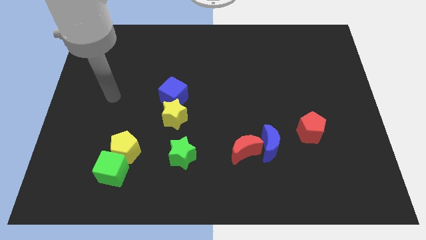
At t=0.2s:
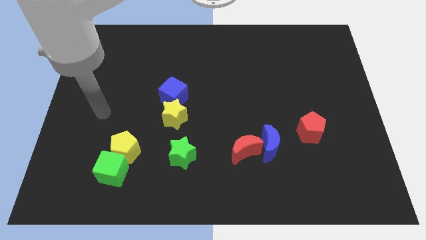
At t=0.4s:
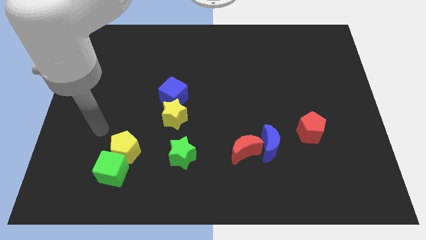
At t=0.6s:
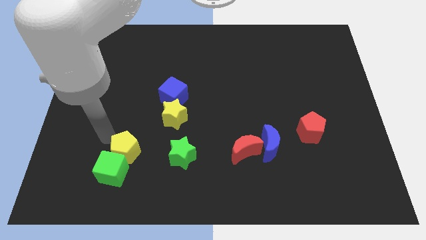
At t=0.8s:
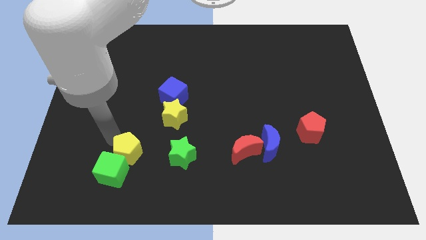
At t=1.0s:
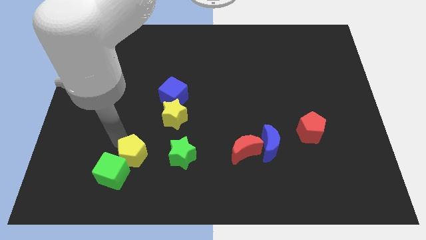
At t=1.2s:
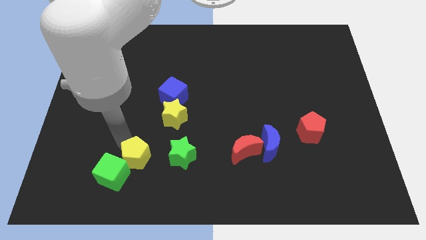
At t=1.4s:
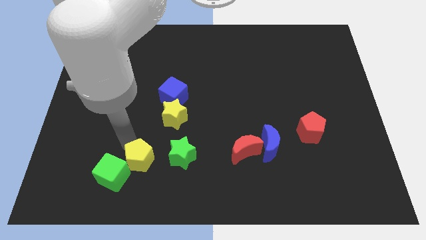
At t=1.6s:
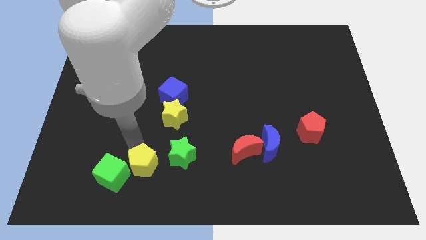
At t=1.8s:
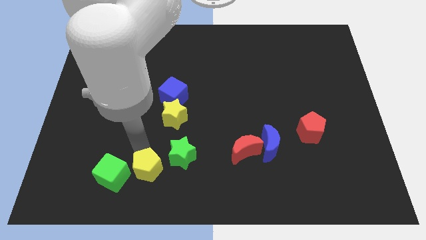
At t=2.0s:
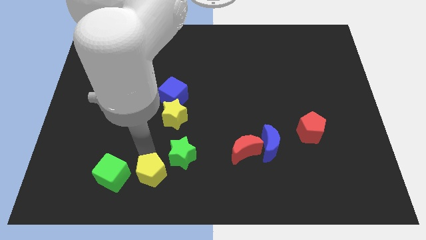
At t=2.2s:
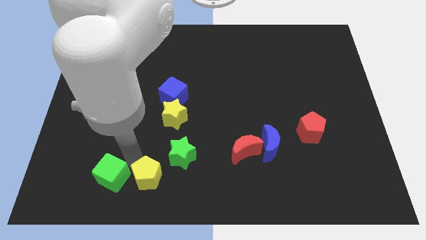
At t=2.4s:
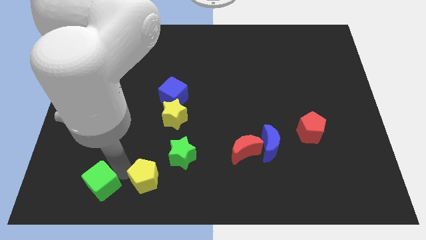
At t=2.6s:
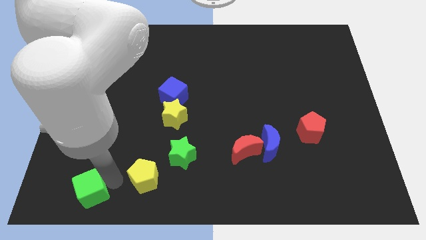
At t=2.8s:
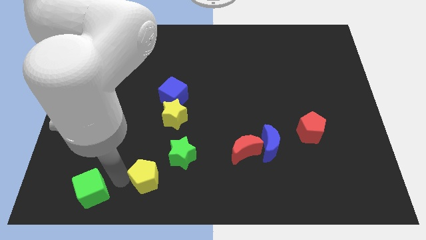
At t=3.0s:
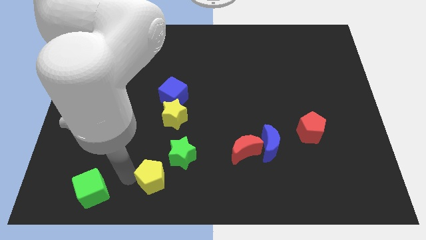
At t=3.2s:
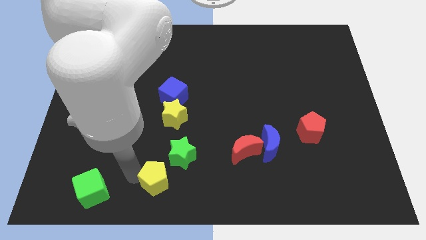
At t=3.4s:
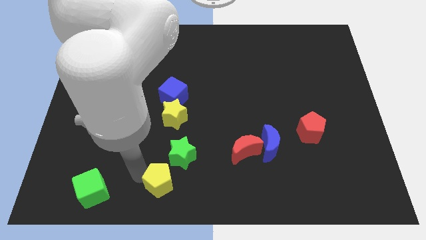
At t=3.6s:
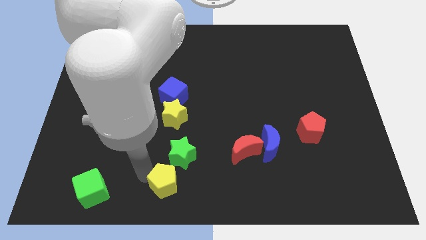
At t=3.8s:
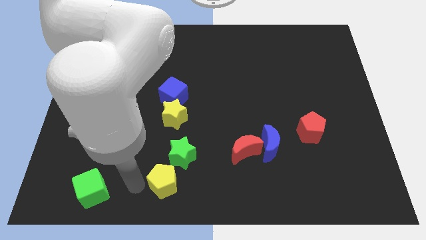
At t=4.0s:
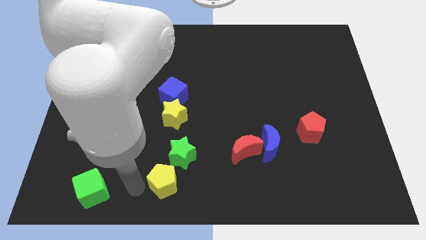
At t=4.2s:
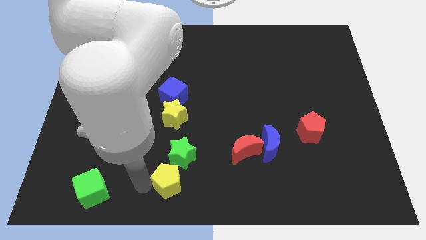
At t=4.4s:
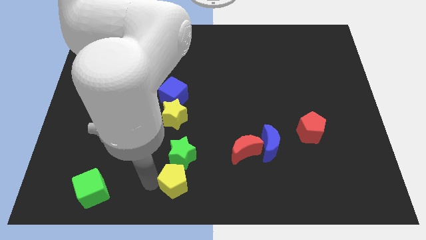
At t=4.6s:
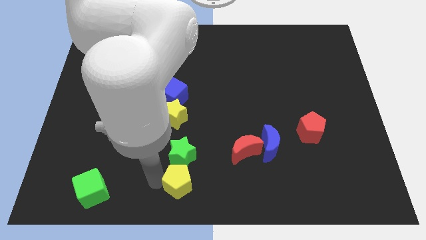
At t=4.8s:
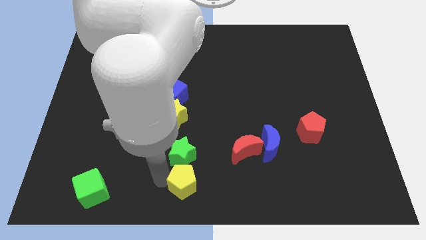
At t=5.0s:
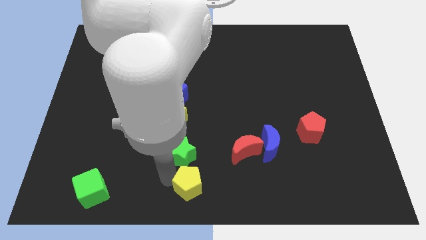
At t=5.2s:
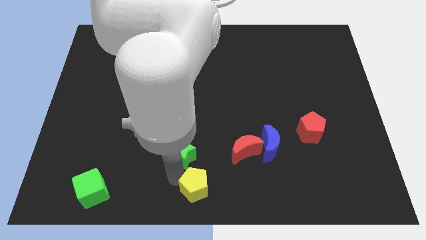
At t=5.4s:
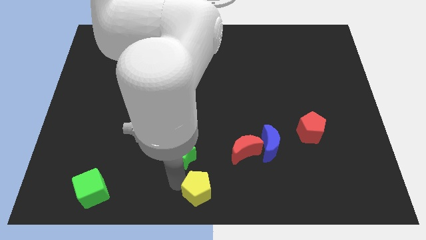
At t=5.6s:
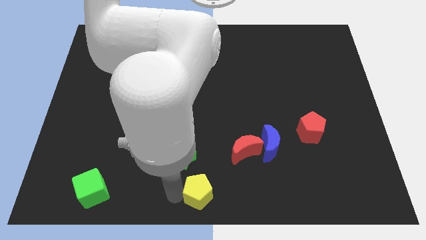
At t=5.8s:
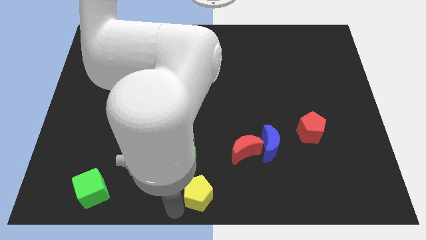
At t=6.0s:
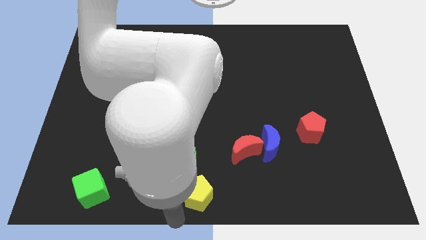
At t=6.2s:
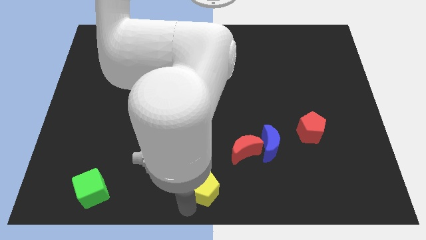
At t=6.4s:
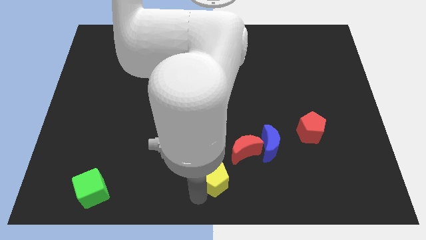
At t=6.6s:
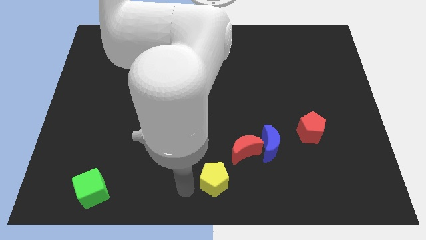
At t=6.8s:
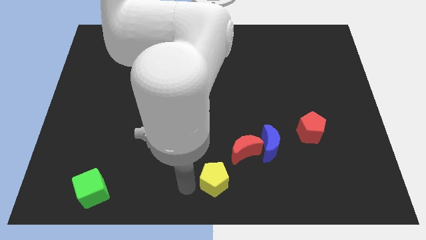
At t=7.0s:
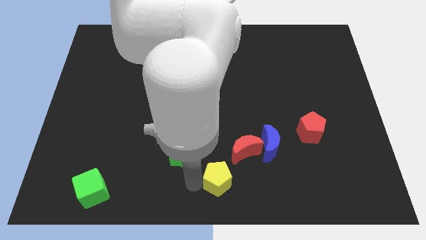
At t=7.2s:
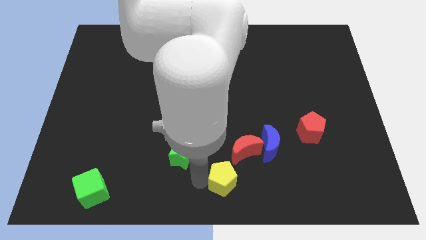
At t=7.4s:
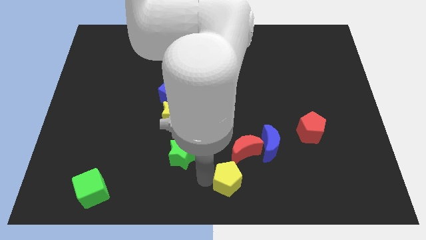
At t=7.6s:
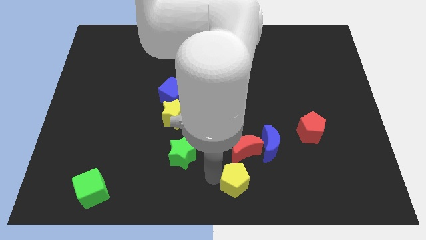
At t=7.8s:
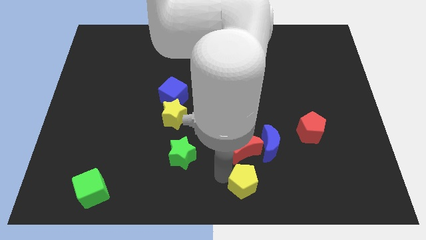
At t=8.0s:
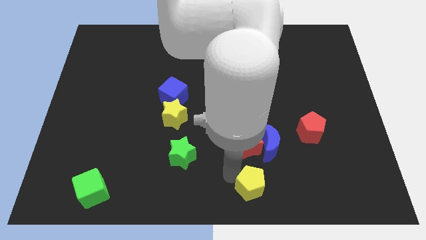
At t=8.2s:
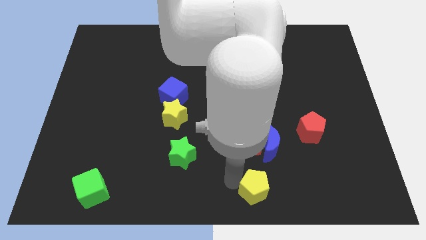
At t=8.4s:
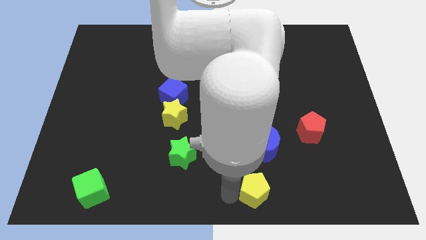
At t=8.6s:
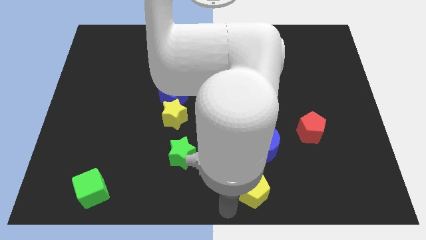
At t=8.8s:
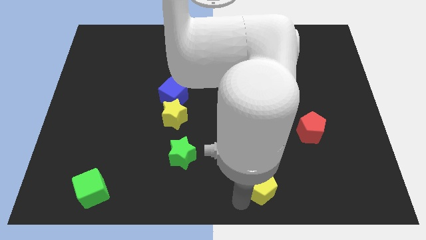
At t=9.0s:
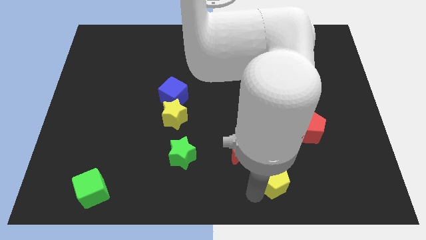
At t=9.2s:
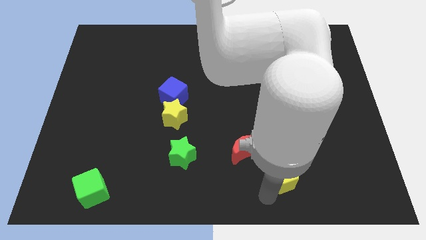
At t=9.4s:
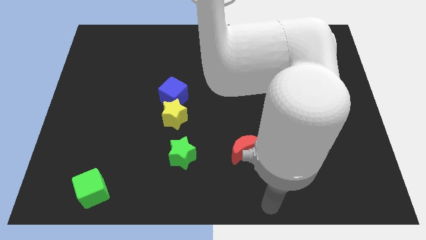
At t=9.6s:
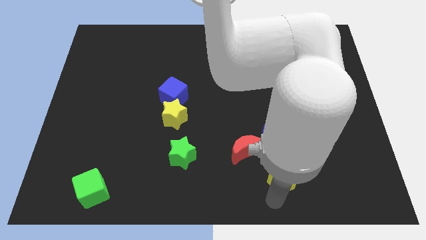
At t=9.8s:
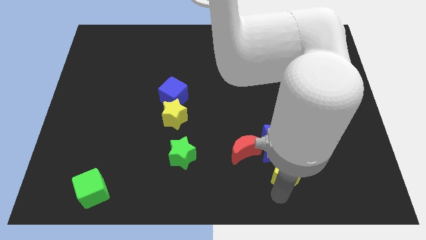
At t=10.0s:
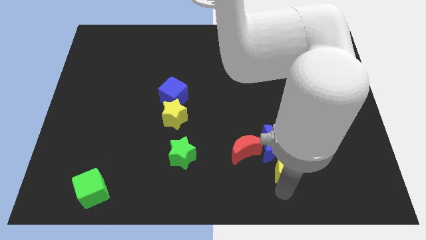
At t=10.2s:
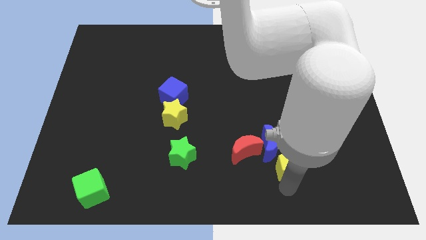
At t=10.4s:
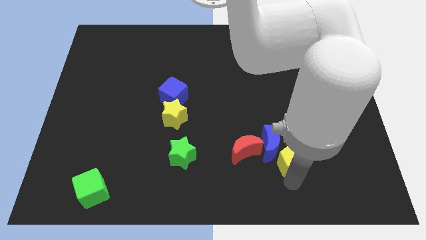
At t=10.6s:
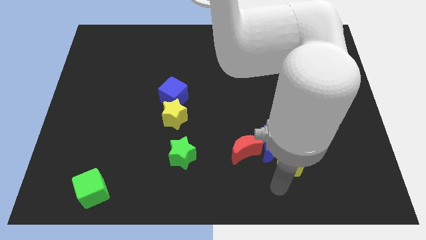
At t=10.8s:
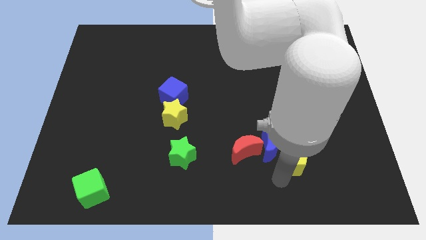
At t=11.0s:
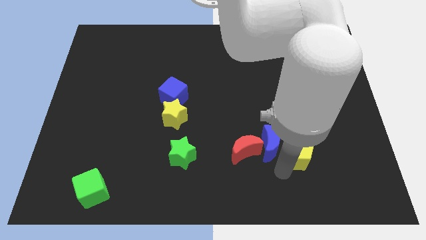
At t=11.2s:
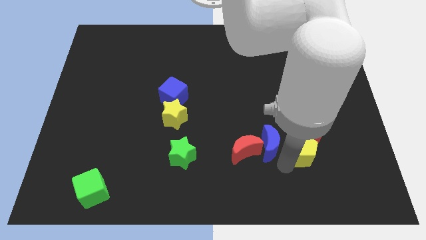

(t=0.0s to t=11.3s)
slide the yellow pentagon to the red pentagon

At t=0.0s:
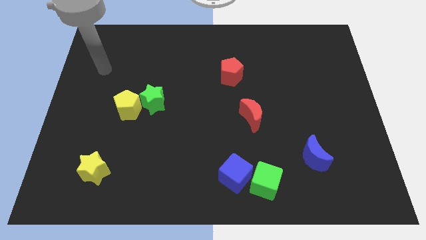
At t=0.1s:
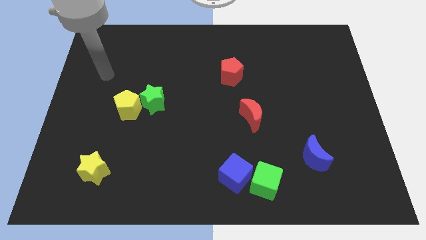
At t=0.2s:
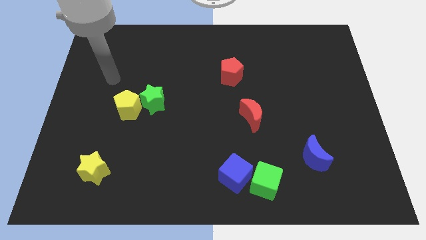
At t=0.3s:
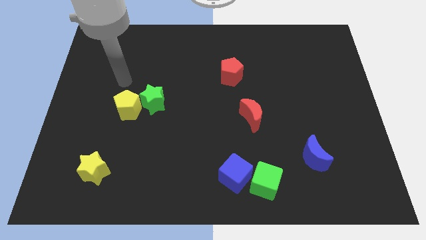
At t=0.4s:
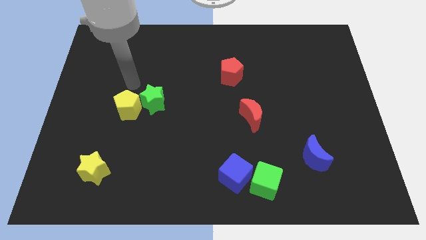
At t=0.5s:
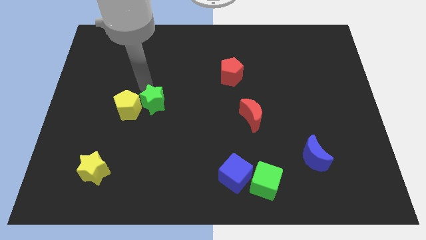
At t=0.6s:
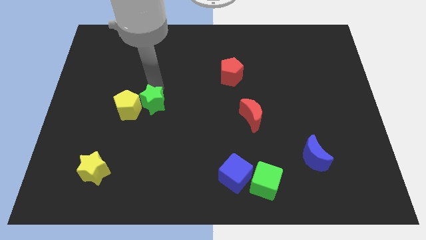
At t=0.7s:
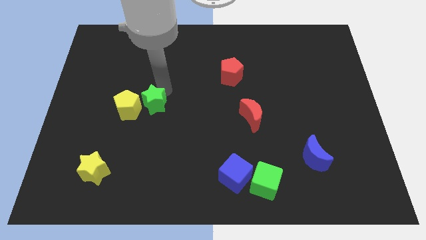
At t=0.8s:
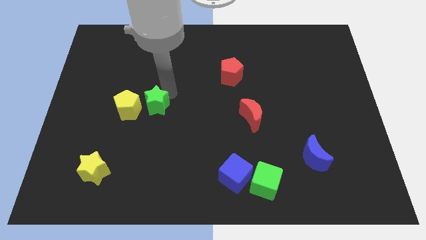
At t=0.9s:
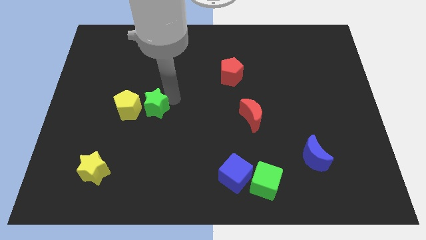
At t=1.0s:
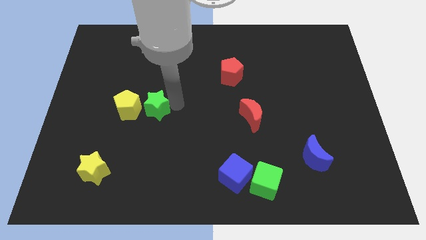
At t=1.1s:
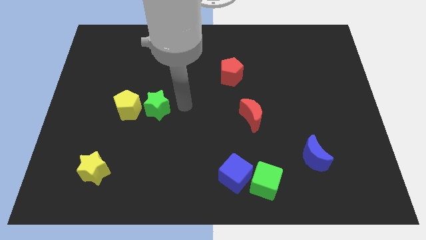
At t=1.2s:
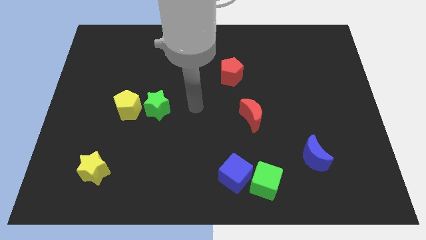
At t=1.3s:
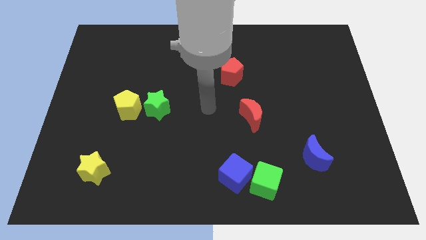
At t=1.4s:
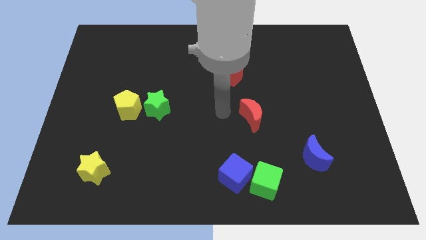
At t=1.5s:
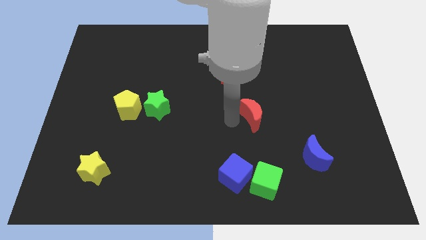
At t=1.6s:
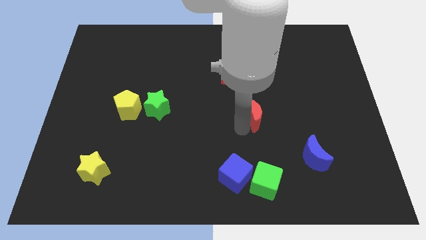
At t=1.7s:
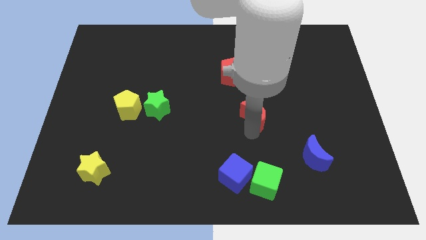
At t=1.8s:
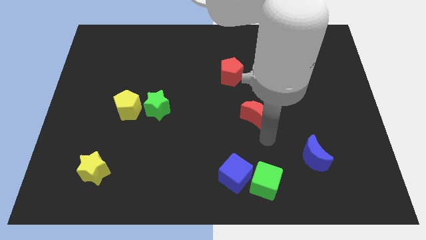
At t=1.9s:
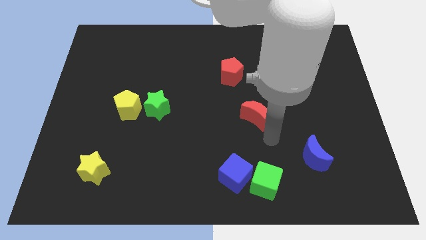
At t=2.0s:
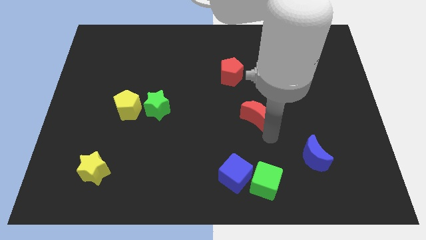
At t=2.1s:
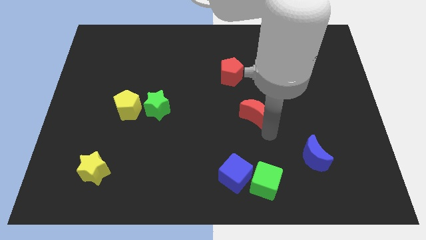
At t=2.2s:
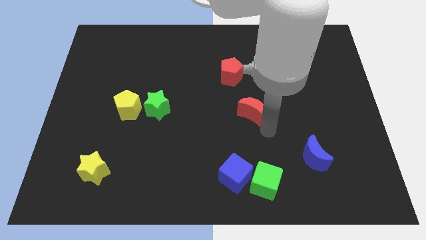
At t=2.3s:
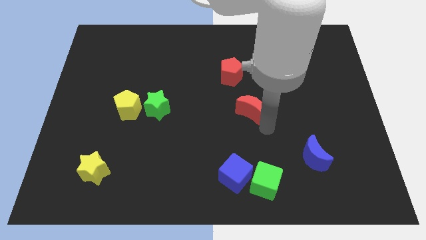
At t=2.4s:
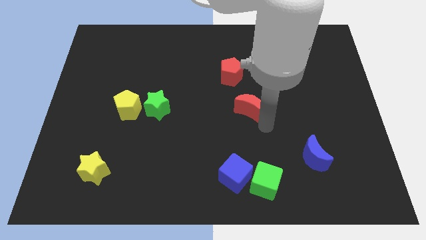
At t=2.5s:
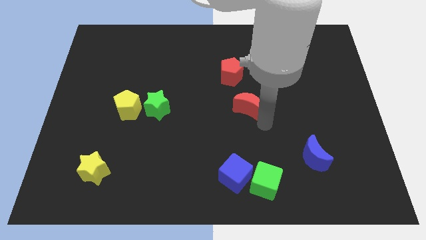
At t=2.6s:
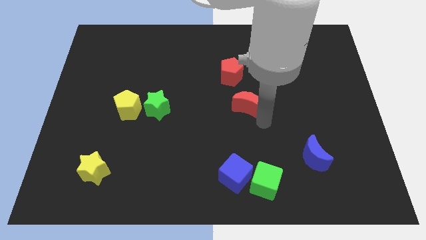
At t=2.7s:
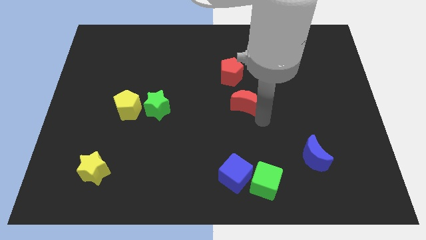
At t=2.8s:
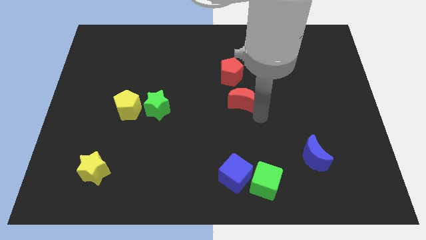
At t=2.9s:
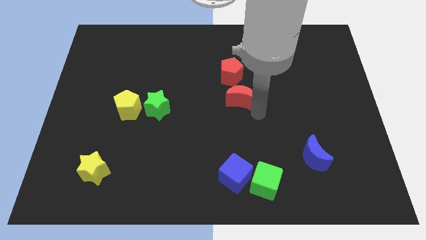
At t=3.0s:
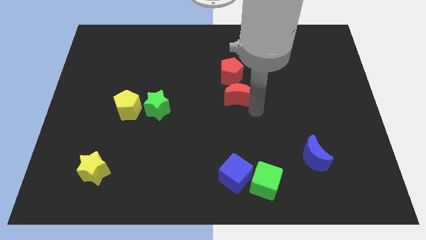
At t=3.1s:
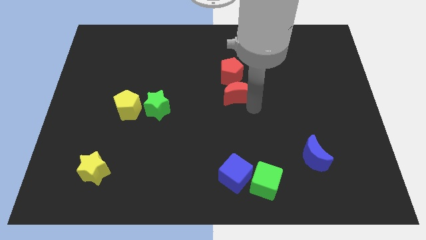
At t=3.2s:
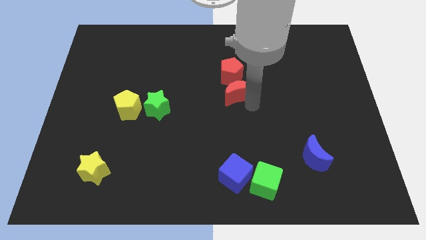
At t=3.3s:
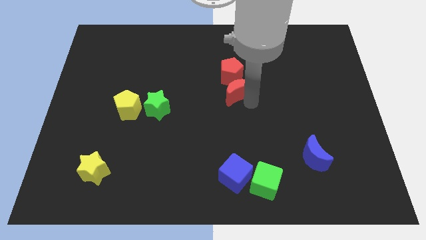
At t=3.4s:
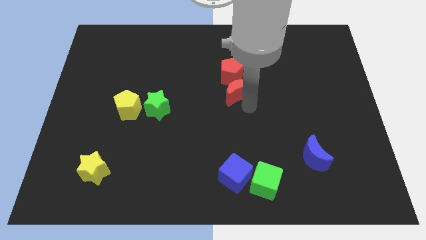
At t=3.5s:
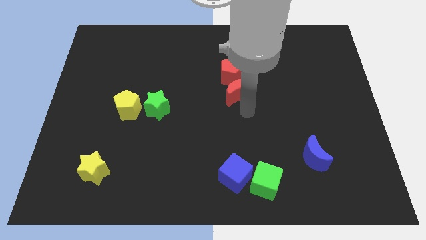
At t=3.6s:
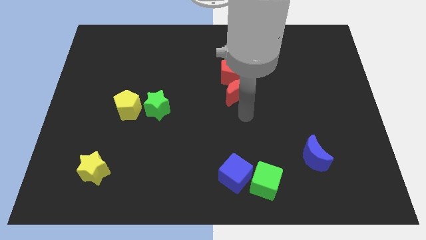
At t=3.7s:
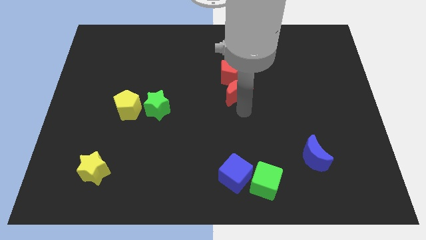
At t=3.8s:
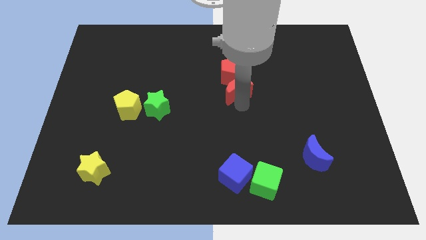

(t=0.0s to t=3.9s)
push the red moon to the red pentagon
